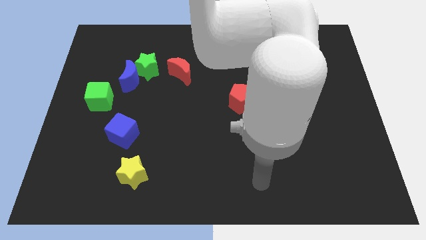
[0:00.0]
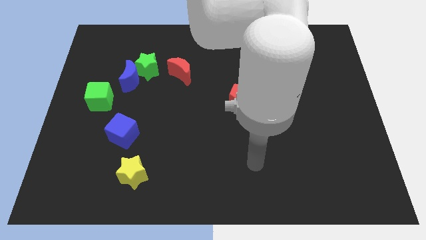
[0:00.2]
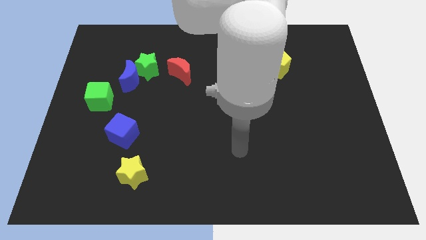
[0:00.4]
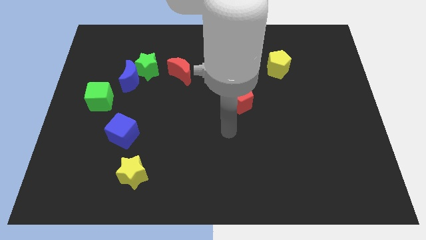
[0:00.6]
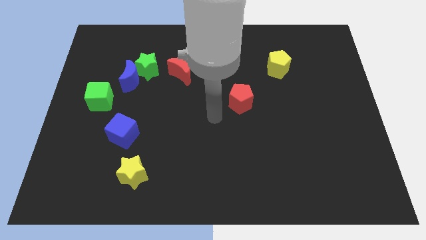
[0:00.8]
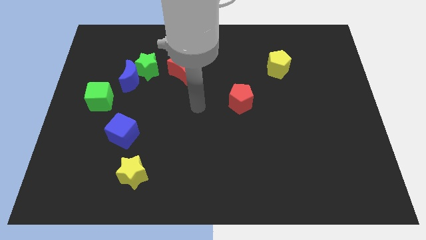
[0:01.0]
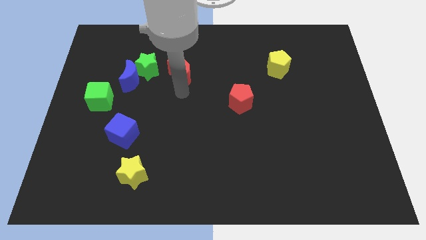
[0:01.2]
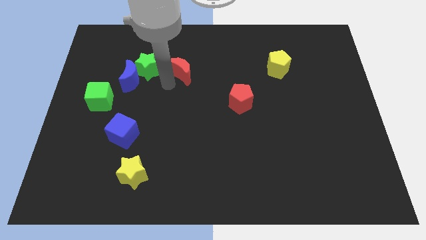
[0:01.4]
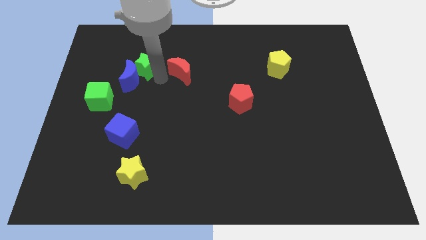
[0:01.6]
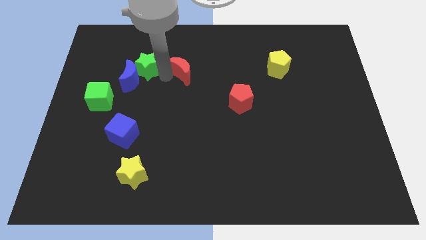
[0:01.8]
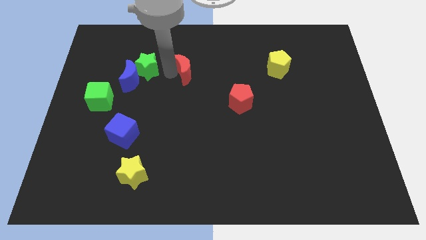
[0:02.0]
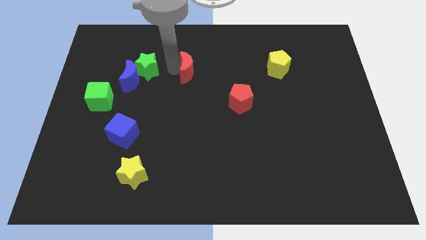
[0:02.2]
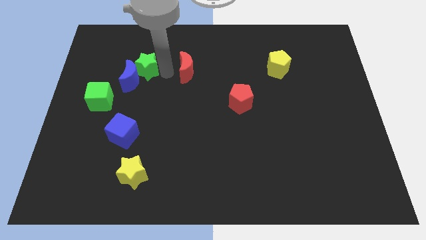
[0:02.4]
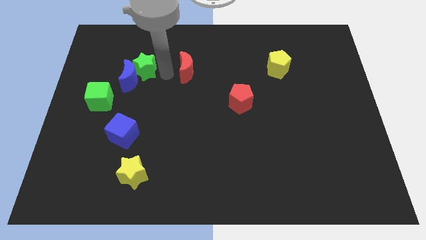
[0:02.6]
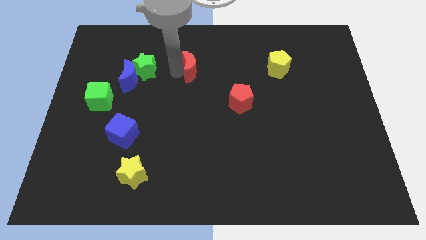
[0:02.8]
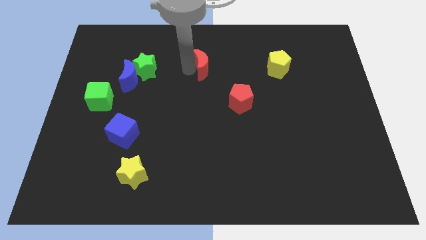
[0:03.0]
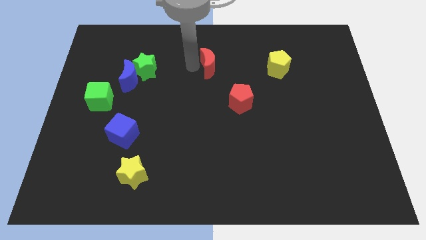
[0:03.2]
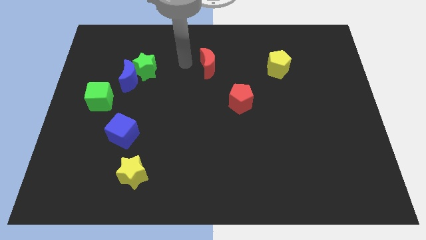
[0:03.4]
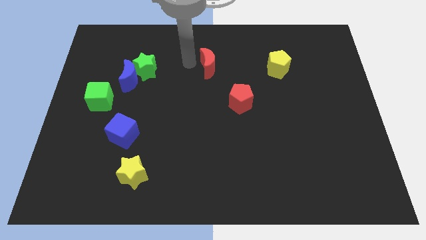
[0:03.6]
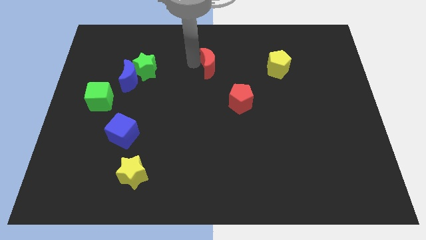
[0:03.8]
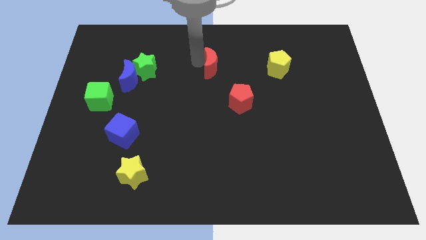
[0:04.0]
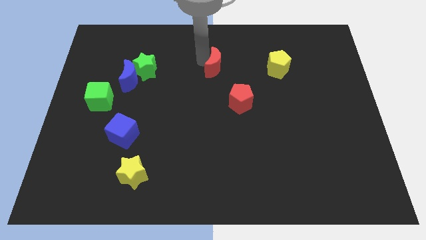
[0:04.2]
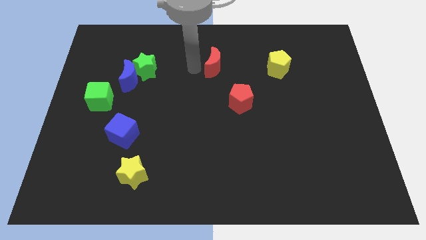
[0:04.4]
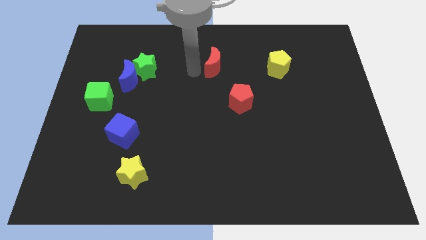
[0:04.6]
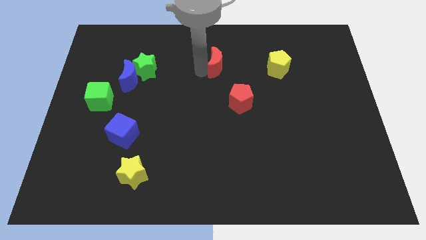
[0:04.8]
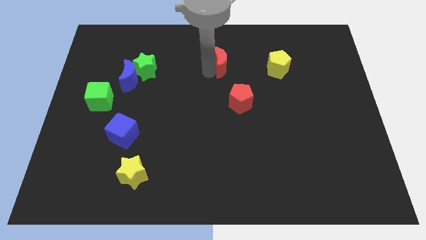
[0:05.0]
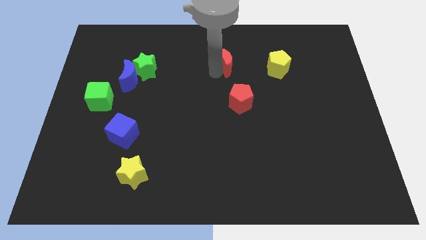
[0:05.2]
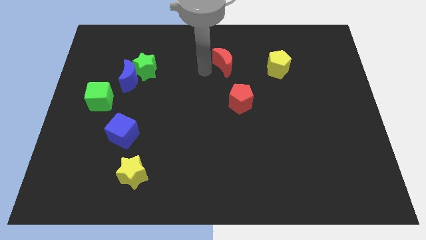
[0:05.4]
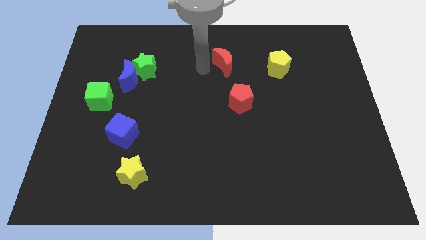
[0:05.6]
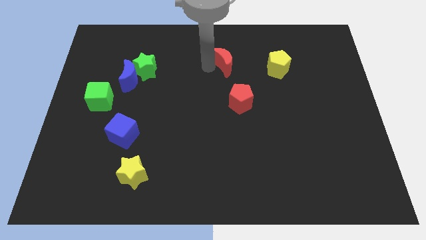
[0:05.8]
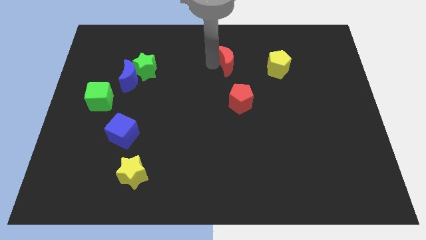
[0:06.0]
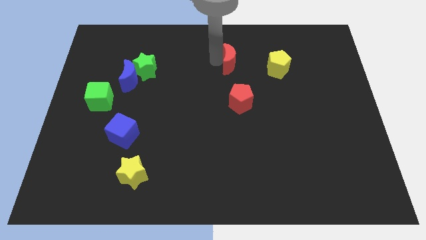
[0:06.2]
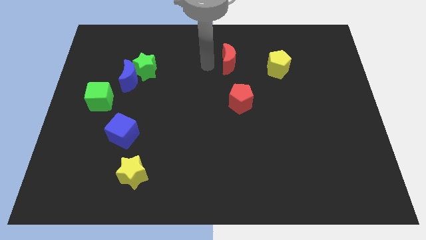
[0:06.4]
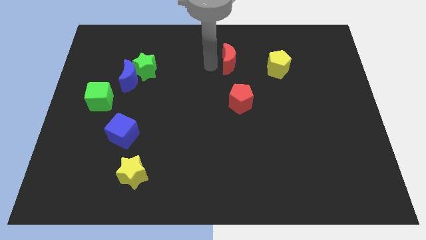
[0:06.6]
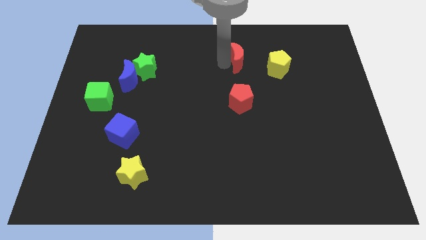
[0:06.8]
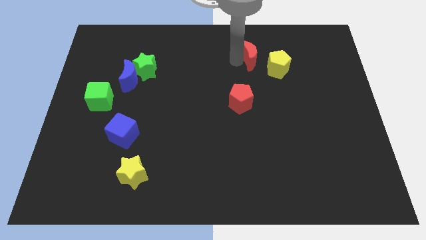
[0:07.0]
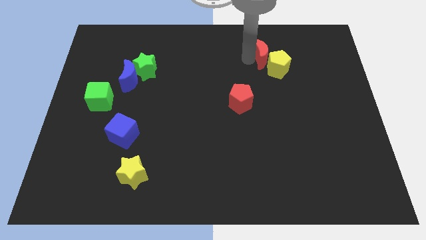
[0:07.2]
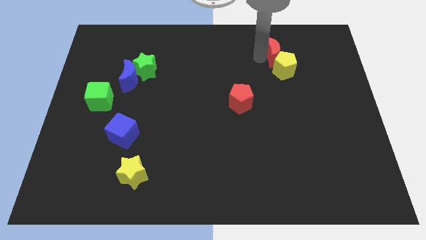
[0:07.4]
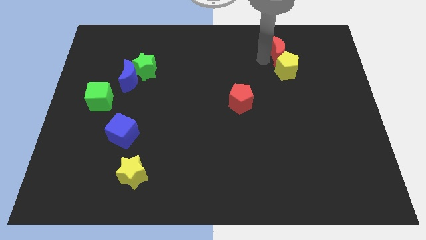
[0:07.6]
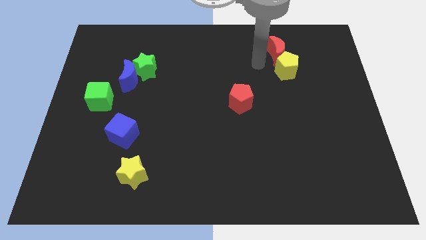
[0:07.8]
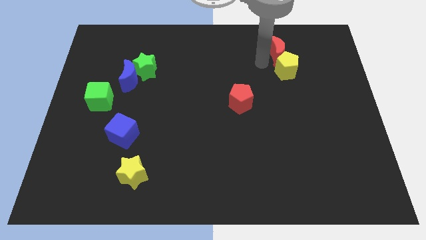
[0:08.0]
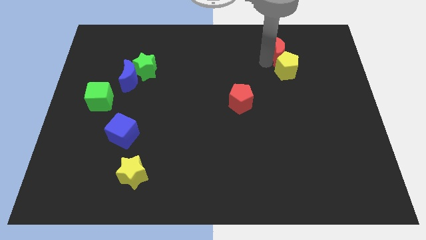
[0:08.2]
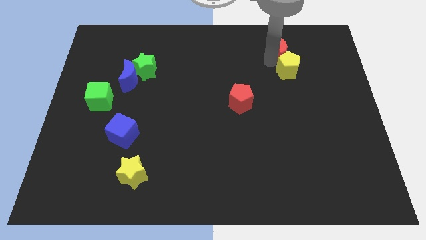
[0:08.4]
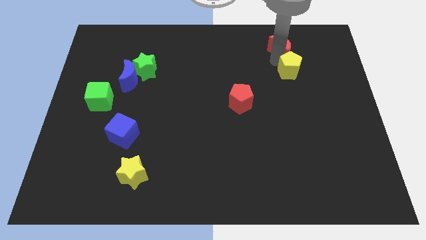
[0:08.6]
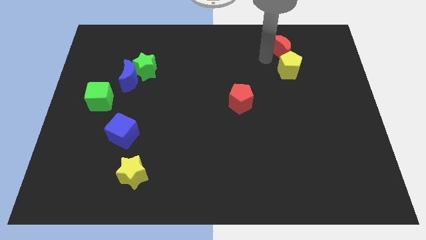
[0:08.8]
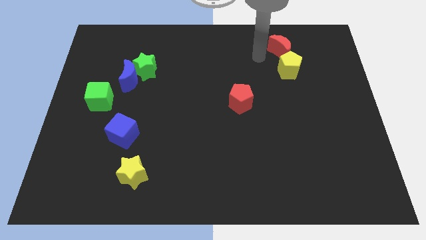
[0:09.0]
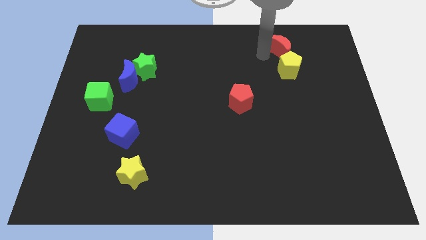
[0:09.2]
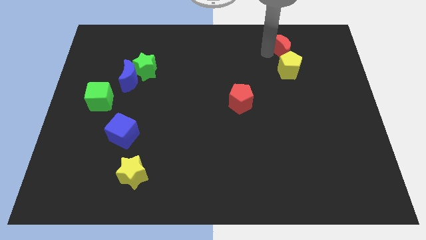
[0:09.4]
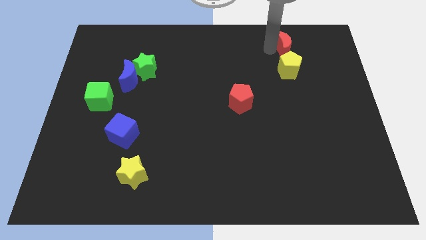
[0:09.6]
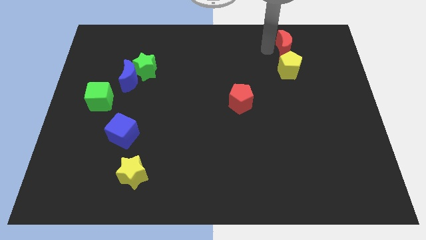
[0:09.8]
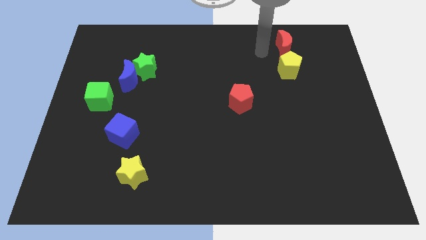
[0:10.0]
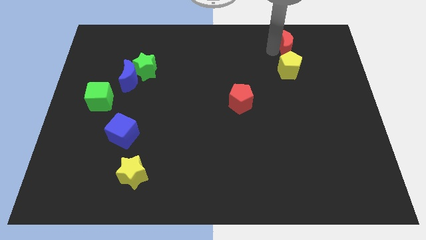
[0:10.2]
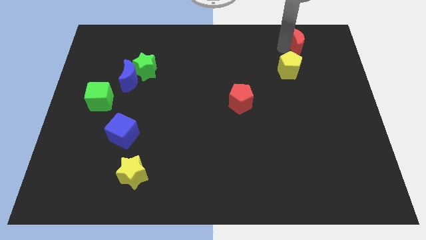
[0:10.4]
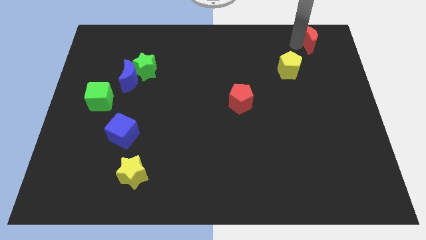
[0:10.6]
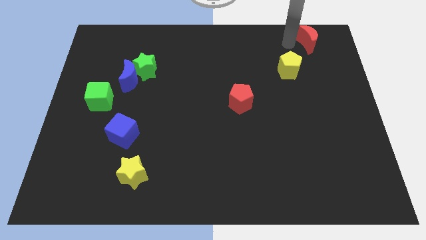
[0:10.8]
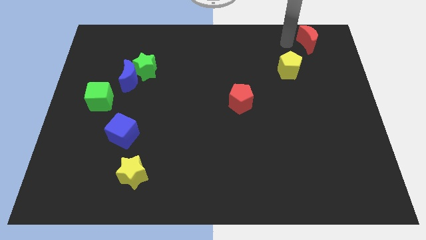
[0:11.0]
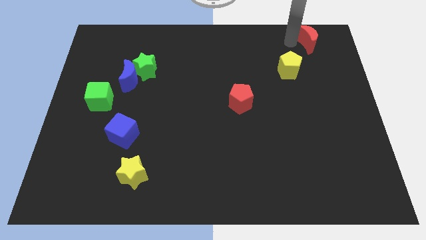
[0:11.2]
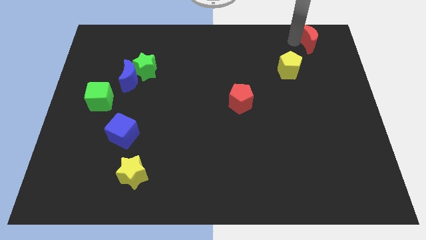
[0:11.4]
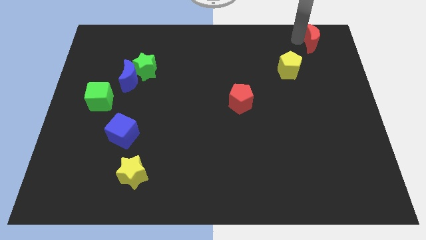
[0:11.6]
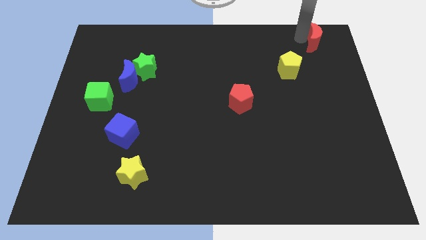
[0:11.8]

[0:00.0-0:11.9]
slide the red moon to the top right

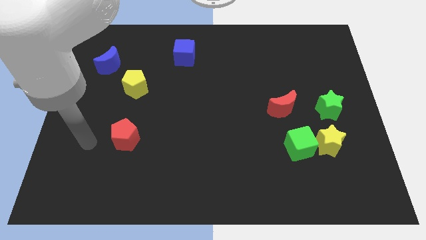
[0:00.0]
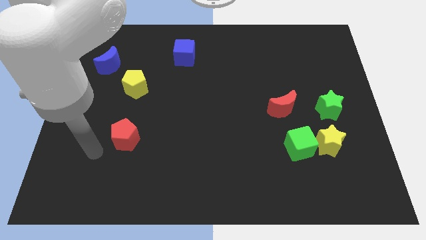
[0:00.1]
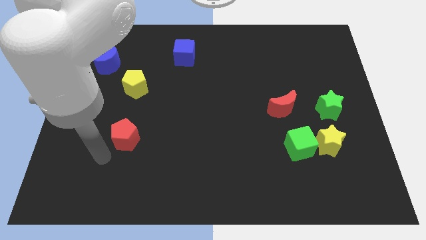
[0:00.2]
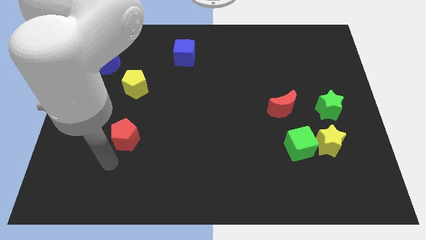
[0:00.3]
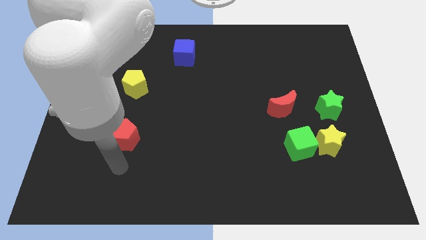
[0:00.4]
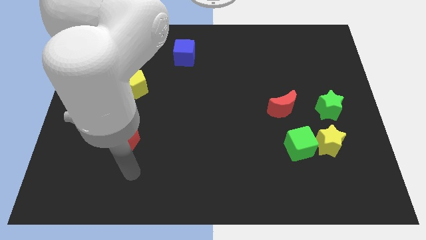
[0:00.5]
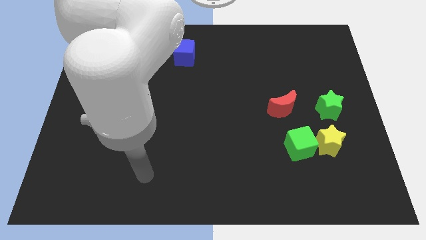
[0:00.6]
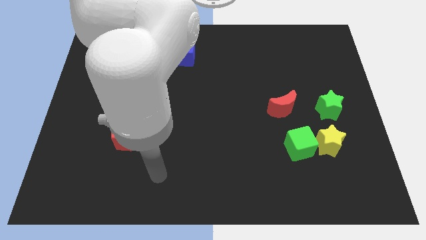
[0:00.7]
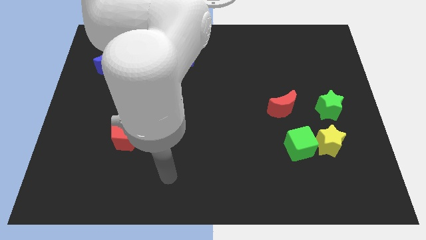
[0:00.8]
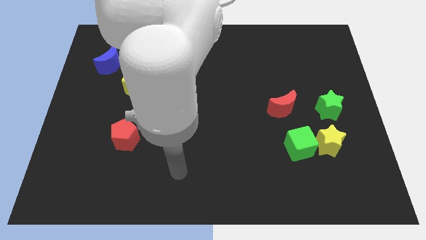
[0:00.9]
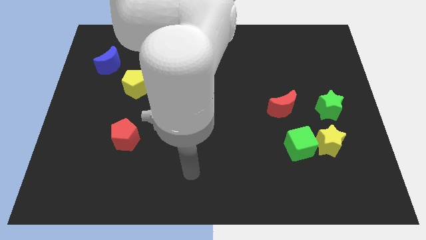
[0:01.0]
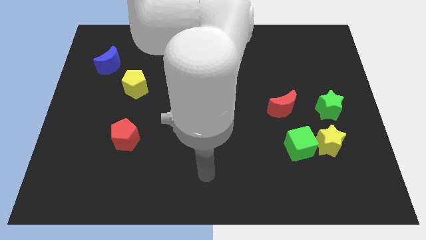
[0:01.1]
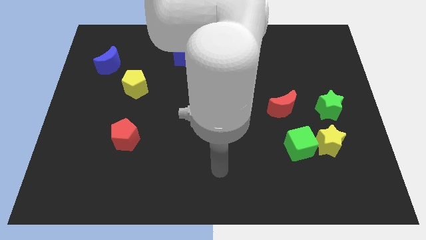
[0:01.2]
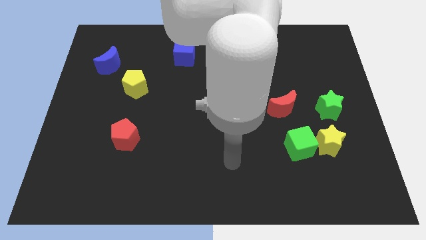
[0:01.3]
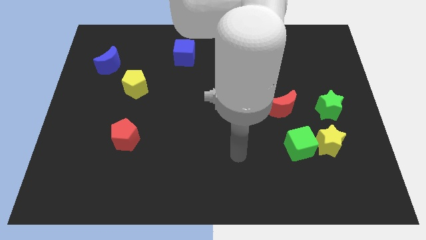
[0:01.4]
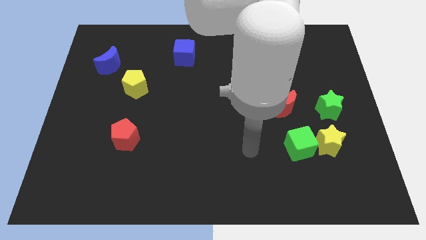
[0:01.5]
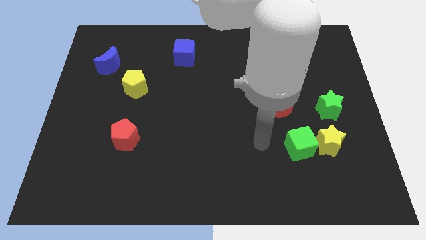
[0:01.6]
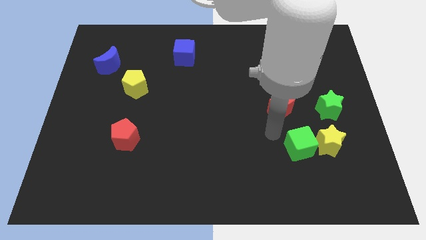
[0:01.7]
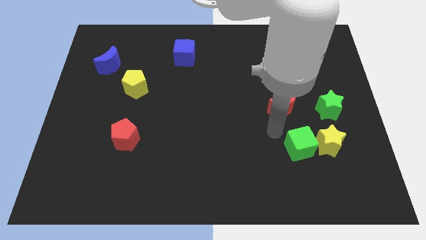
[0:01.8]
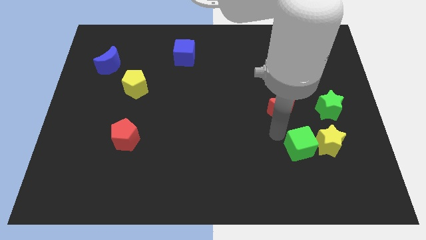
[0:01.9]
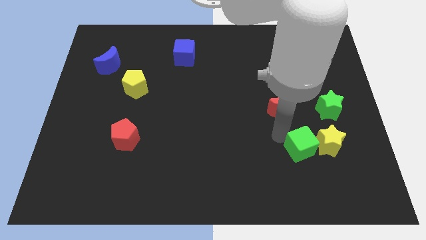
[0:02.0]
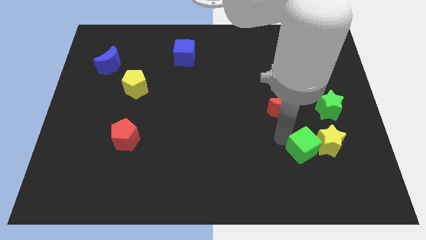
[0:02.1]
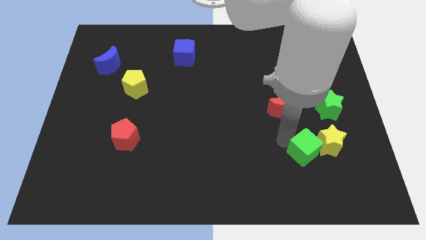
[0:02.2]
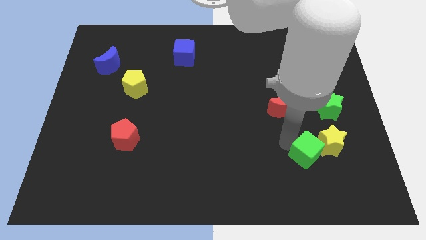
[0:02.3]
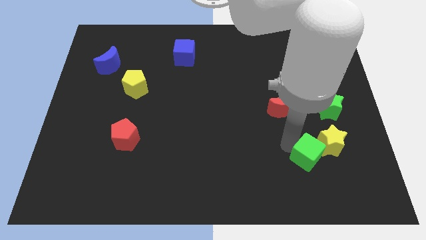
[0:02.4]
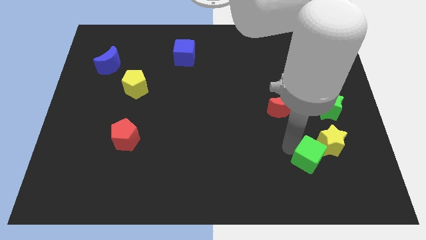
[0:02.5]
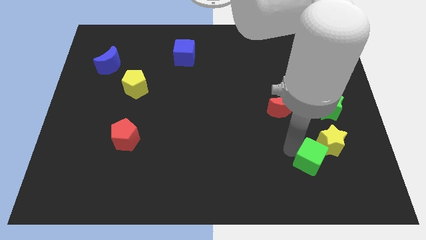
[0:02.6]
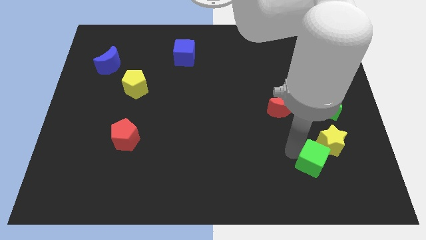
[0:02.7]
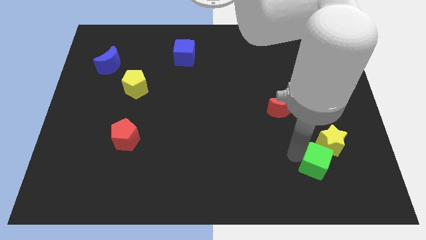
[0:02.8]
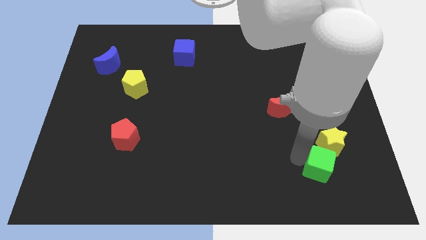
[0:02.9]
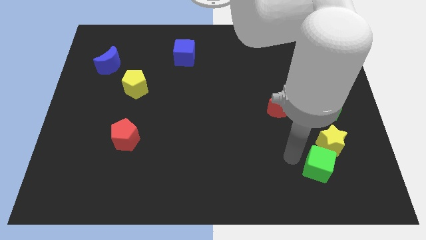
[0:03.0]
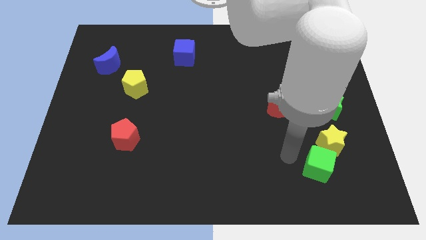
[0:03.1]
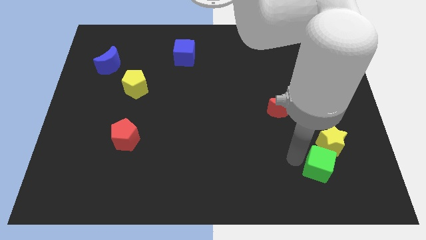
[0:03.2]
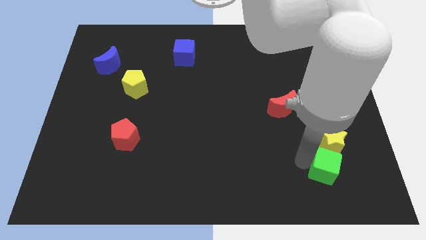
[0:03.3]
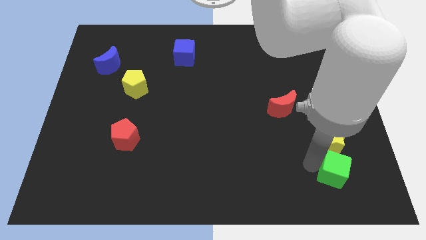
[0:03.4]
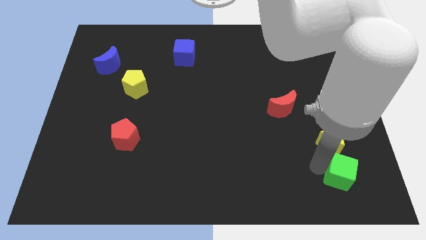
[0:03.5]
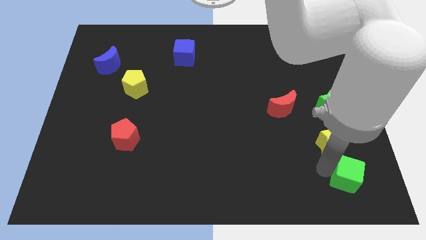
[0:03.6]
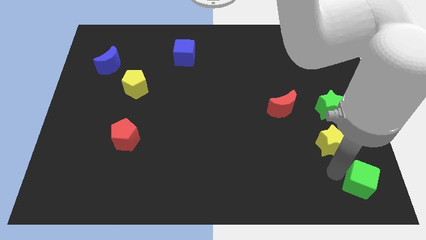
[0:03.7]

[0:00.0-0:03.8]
push the green cube to the lower right corner
